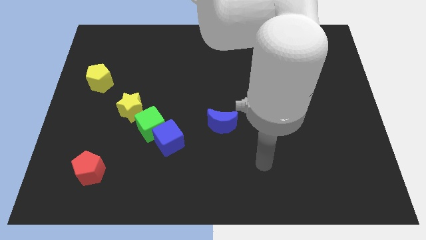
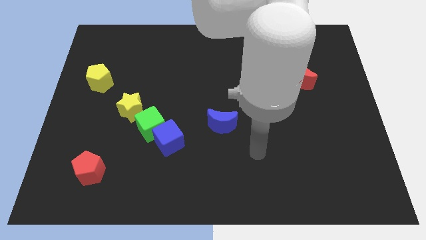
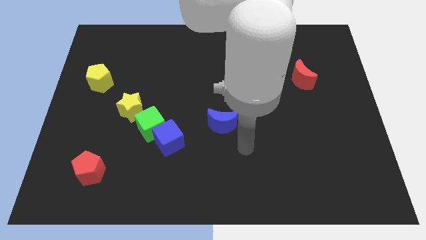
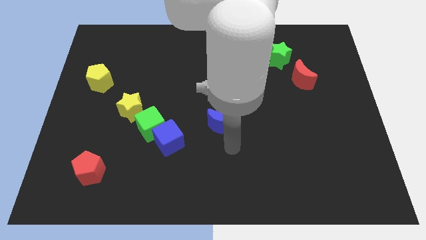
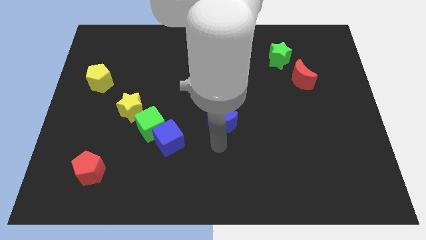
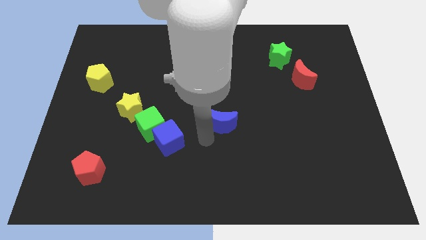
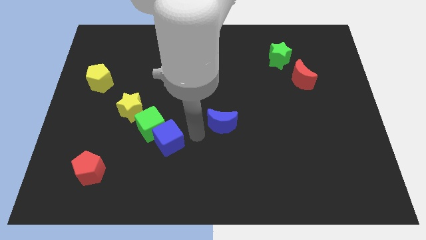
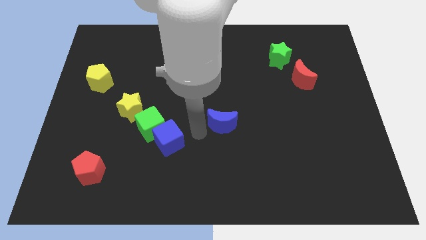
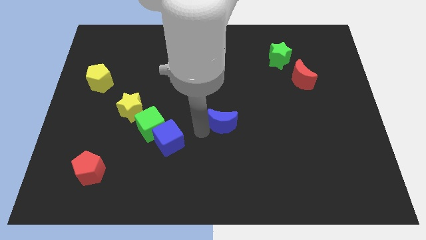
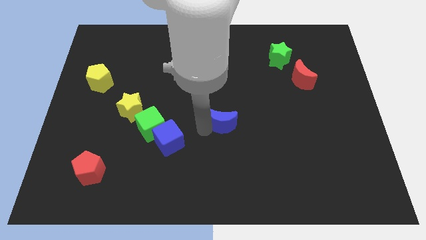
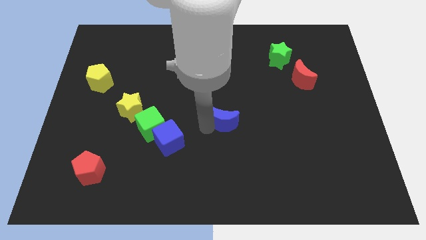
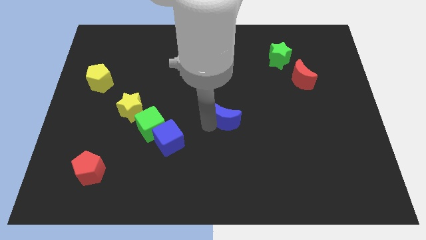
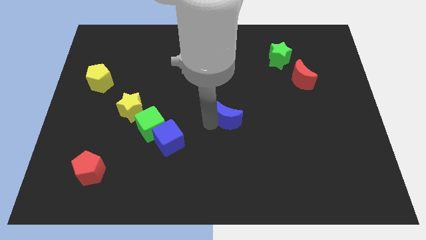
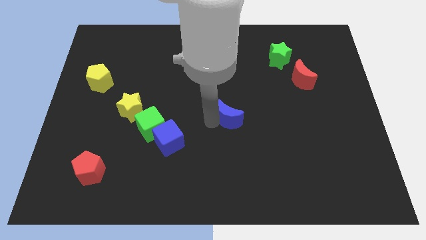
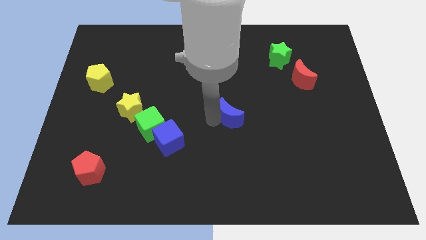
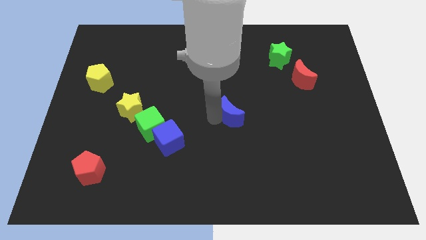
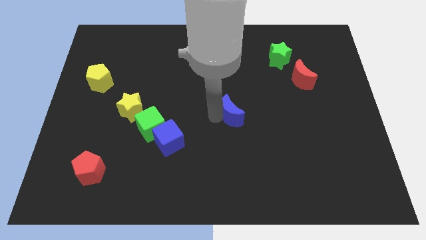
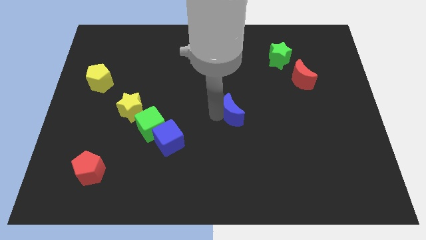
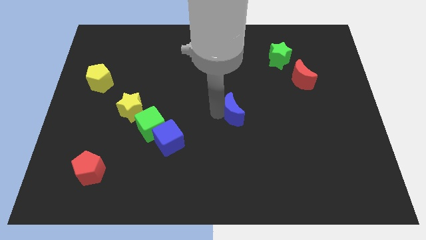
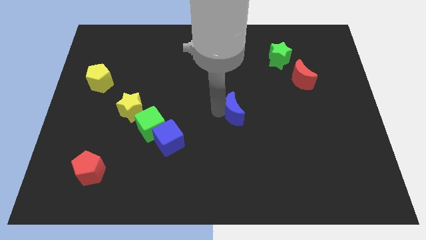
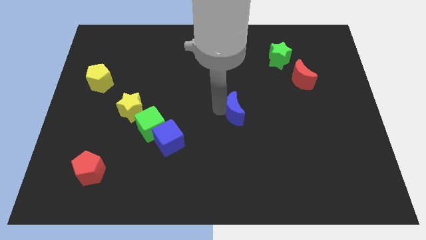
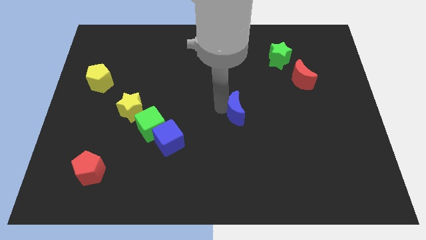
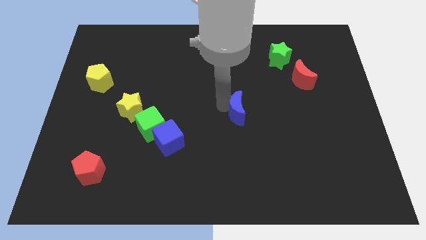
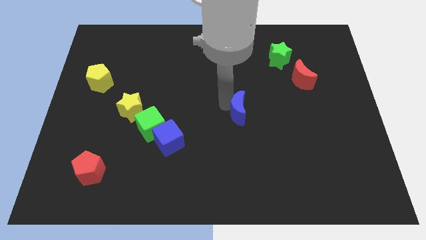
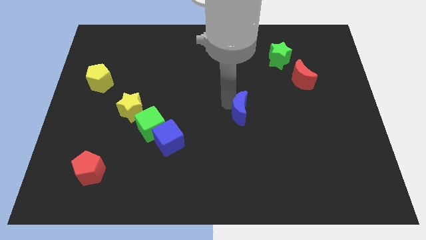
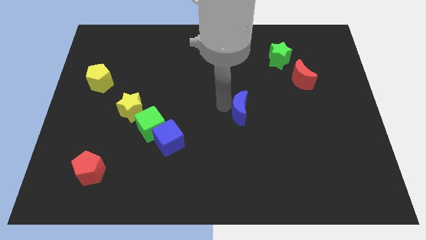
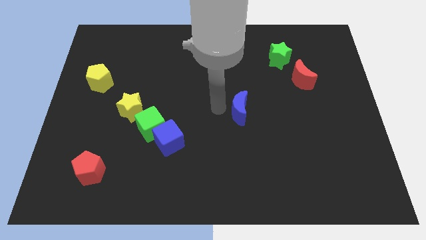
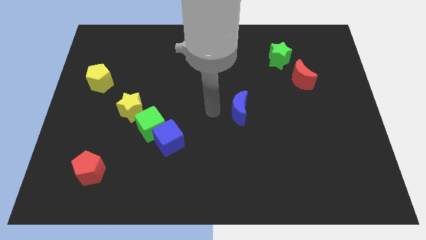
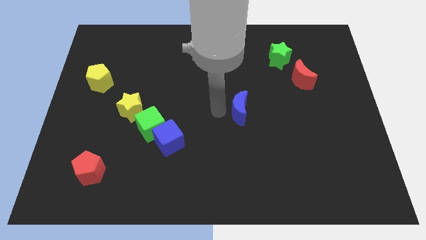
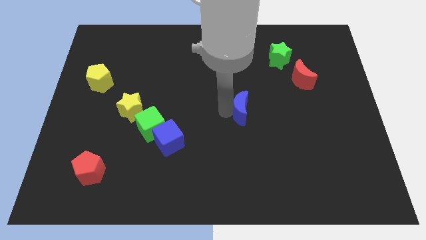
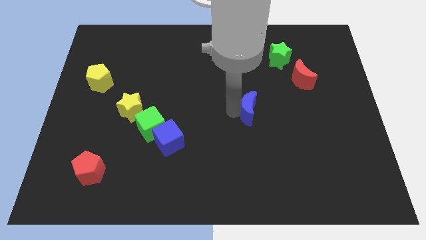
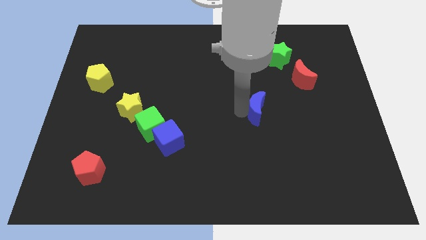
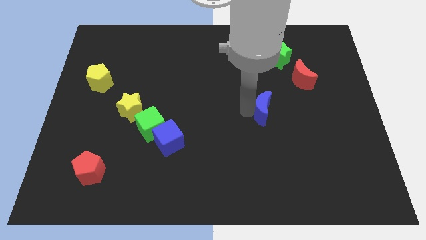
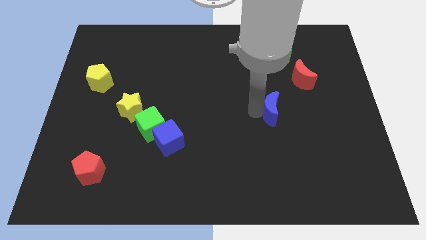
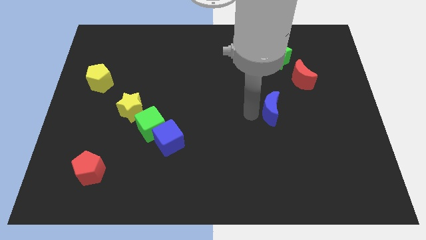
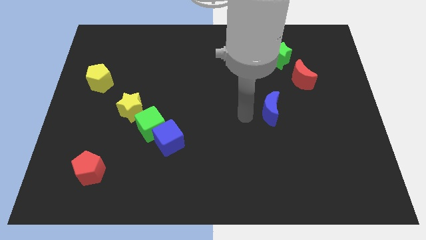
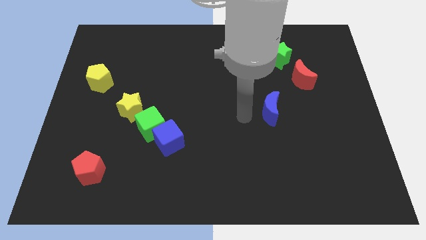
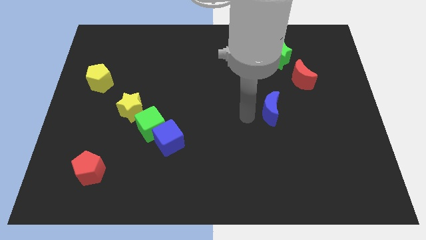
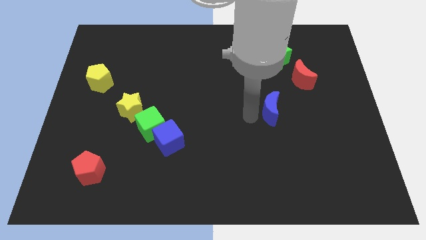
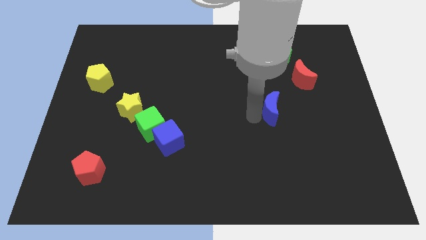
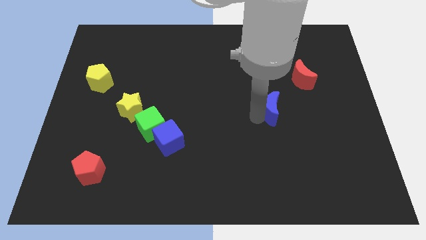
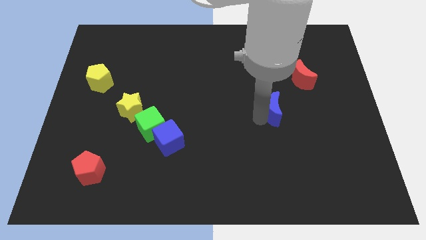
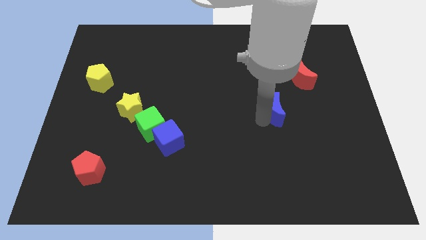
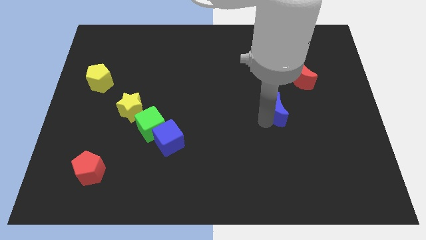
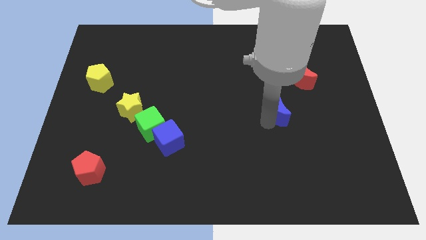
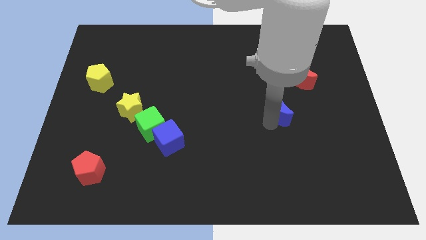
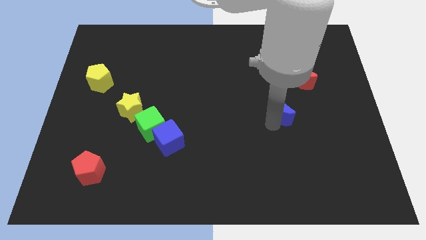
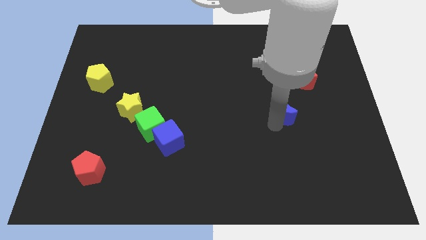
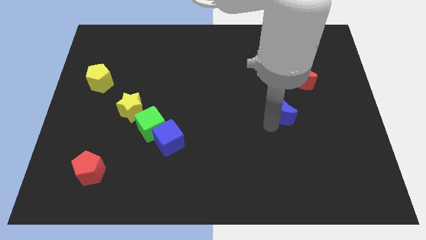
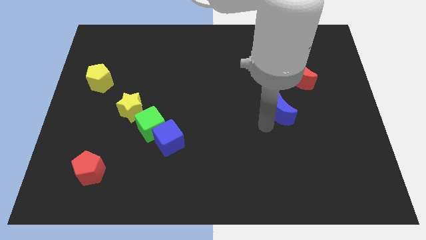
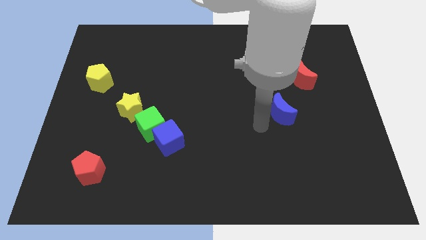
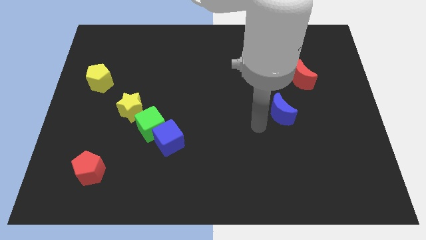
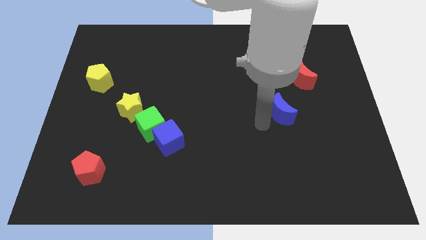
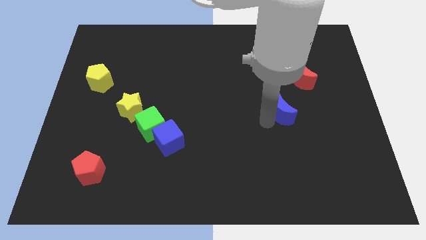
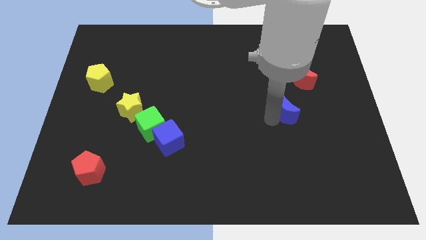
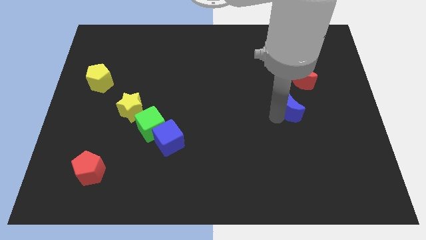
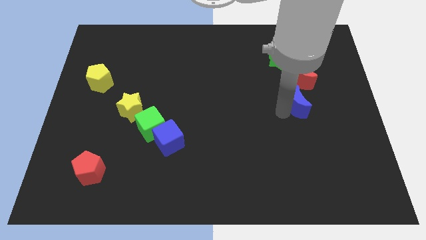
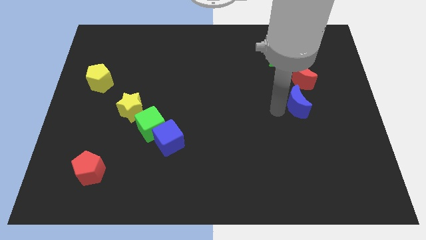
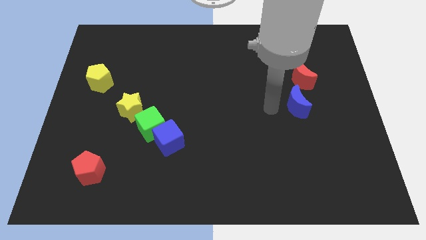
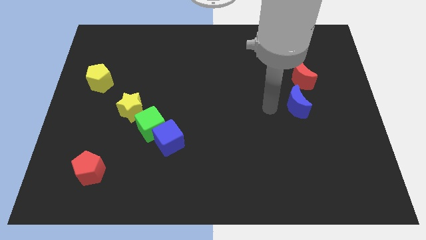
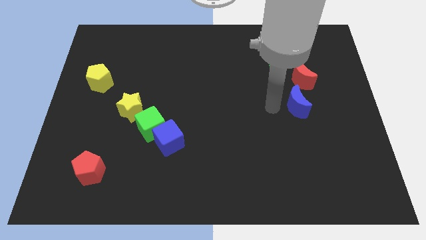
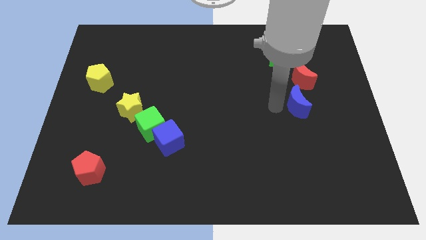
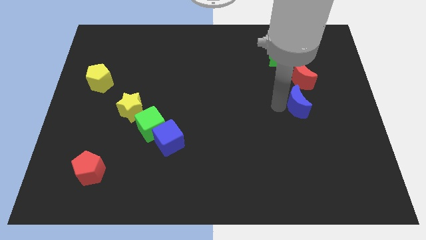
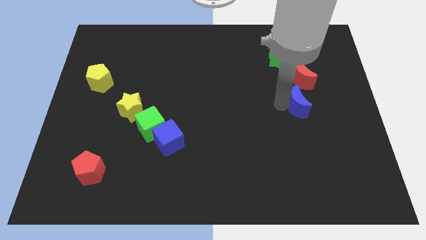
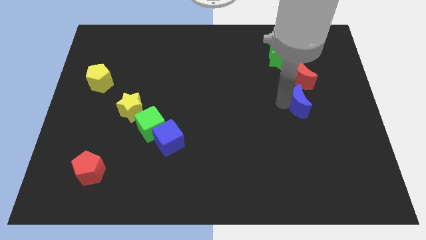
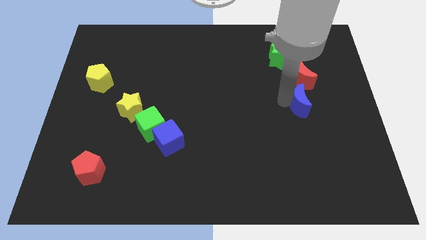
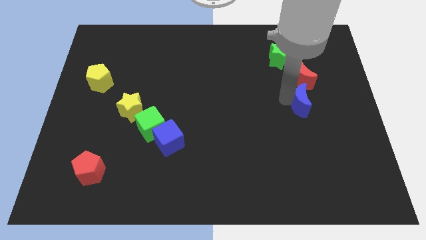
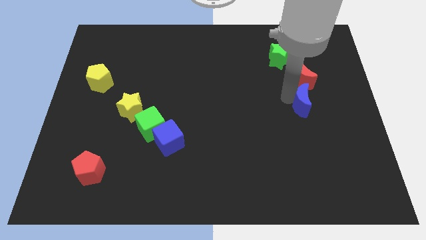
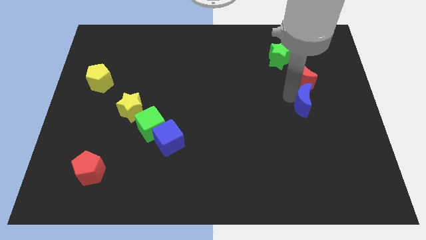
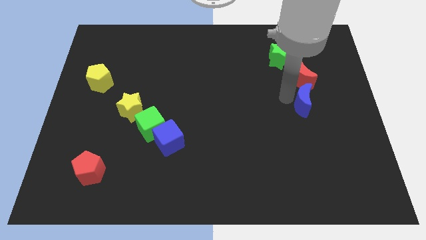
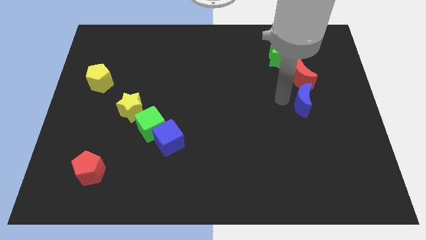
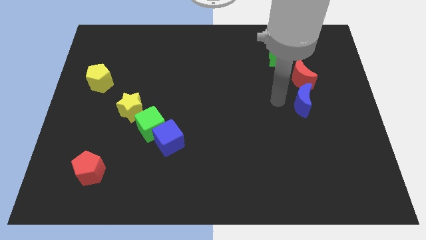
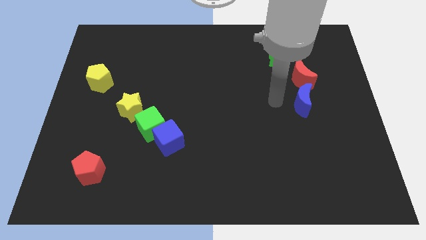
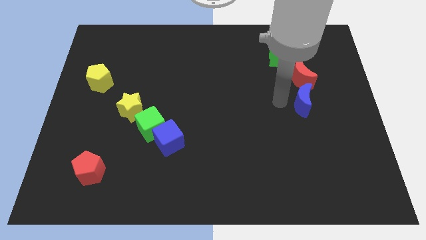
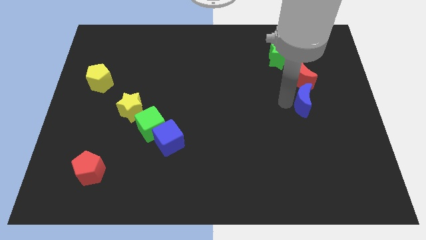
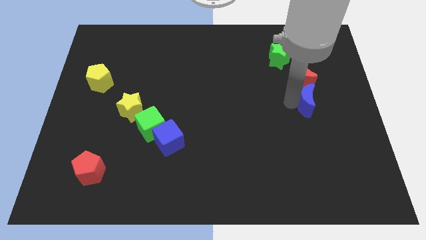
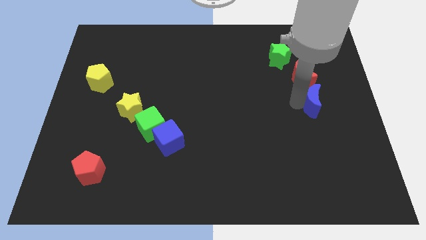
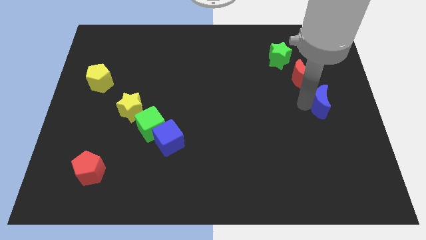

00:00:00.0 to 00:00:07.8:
slide the blue moon to the right side
